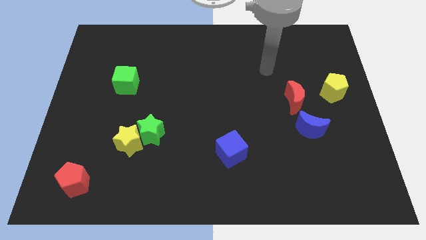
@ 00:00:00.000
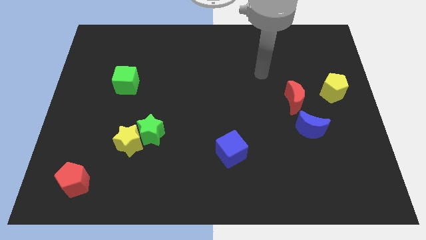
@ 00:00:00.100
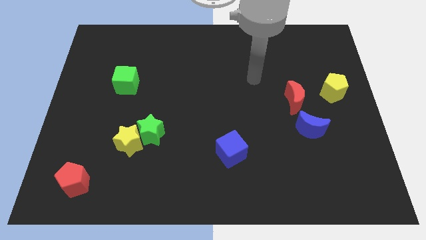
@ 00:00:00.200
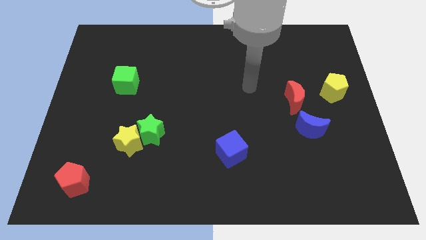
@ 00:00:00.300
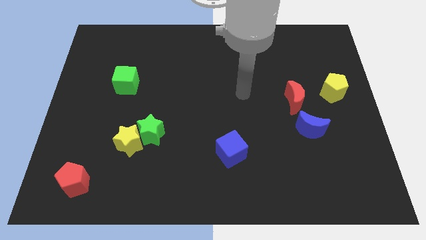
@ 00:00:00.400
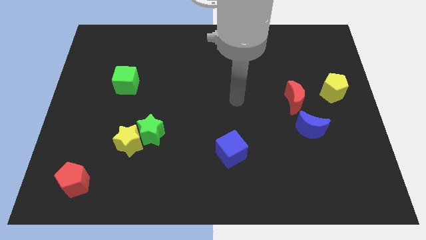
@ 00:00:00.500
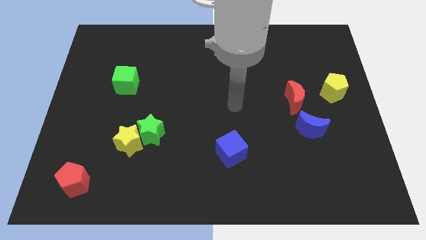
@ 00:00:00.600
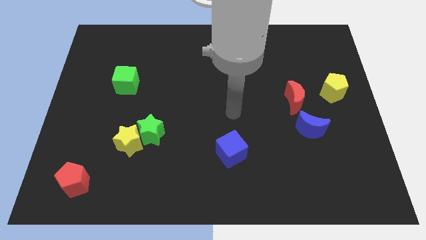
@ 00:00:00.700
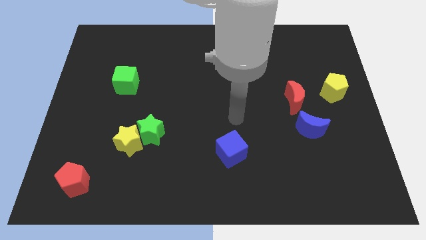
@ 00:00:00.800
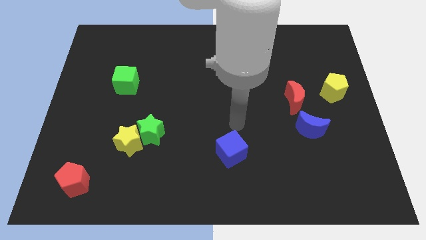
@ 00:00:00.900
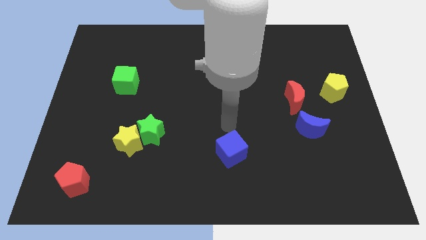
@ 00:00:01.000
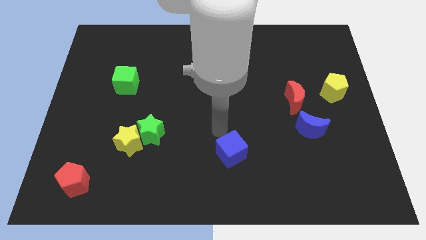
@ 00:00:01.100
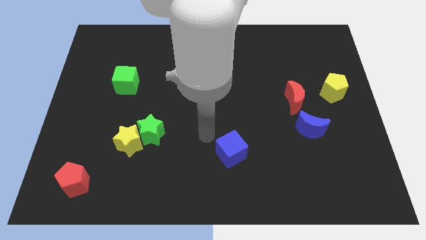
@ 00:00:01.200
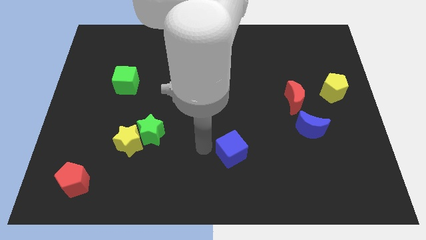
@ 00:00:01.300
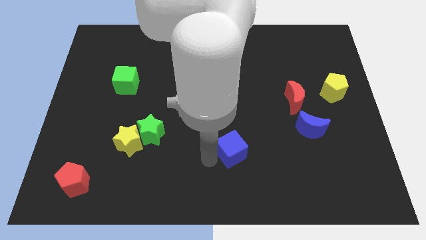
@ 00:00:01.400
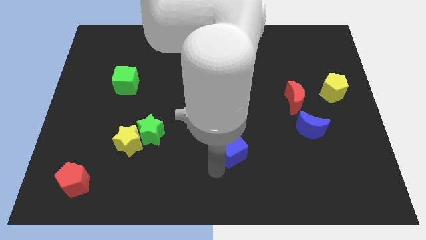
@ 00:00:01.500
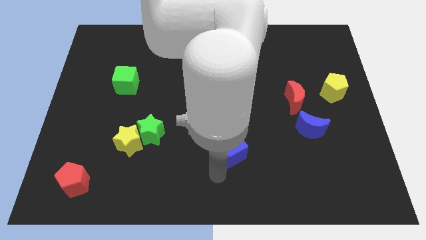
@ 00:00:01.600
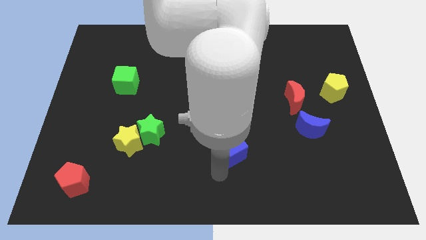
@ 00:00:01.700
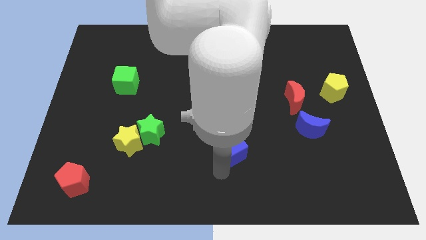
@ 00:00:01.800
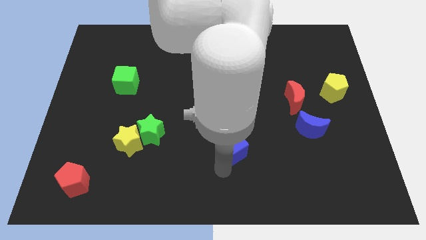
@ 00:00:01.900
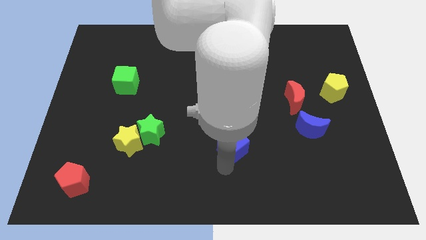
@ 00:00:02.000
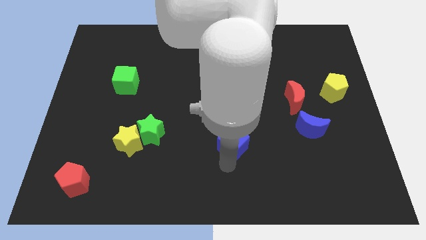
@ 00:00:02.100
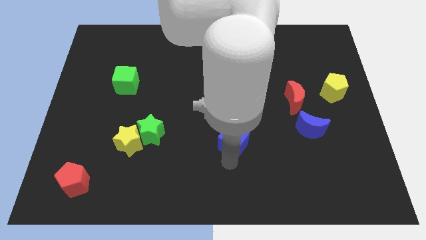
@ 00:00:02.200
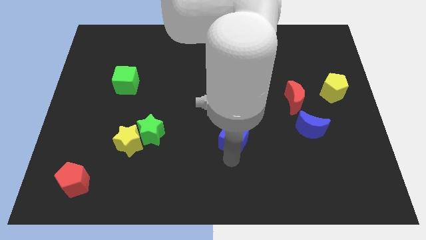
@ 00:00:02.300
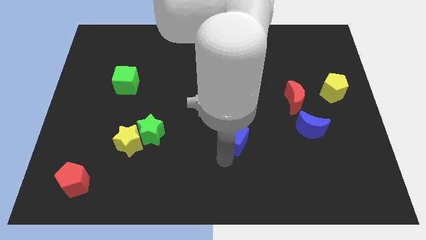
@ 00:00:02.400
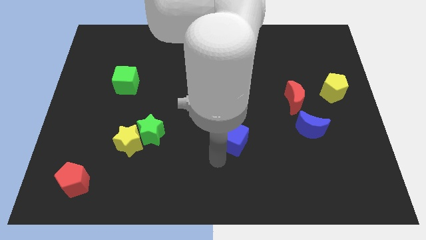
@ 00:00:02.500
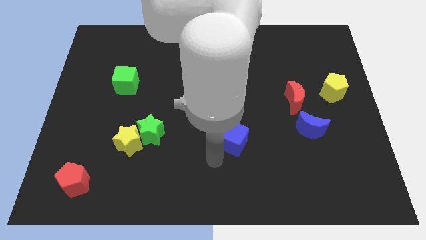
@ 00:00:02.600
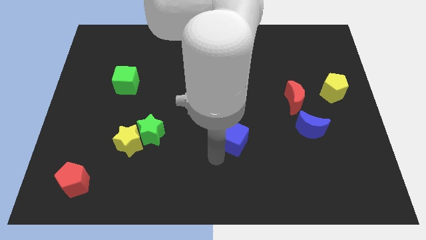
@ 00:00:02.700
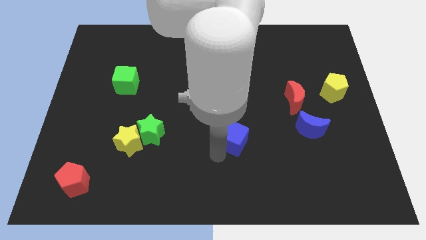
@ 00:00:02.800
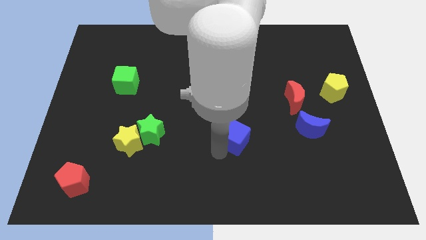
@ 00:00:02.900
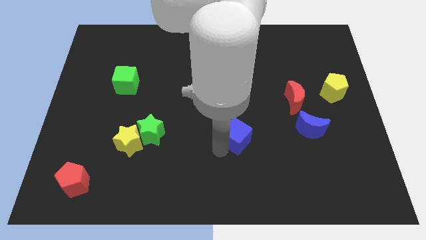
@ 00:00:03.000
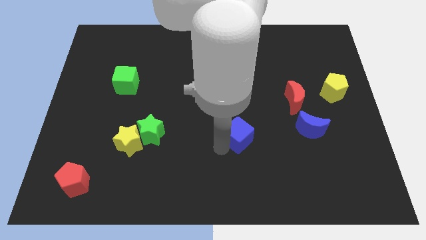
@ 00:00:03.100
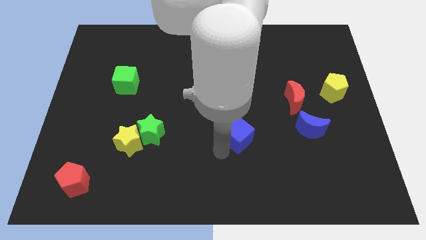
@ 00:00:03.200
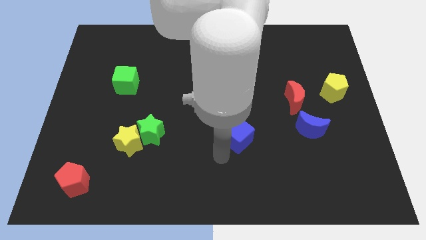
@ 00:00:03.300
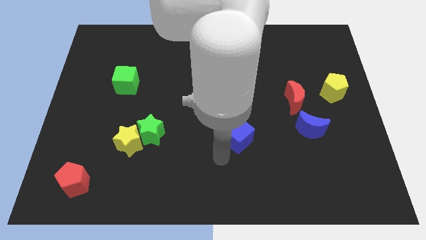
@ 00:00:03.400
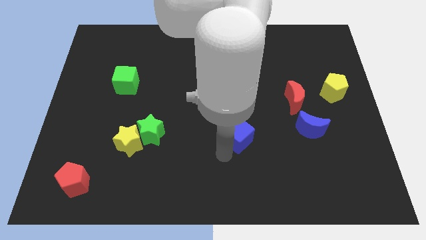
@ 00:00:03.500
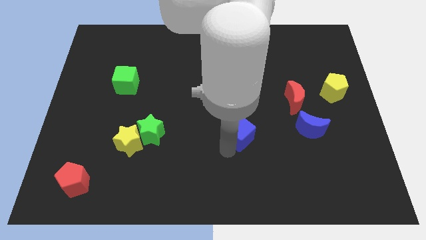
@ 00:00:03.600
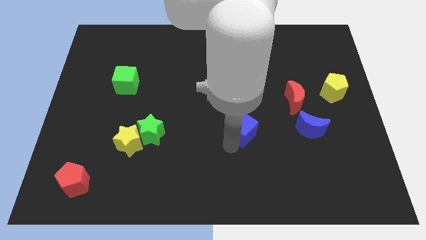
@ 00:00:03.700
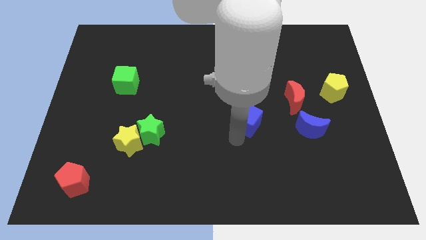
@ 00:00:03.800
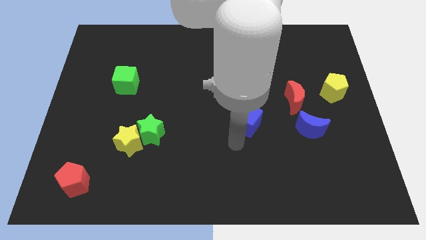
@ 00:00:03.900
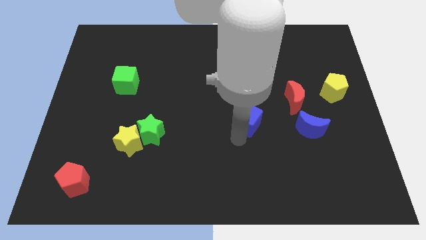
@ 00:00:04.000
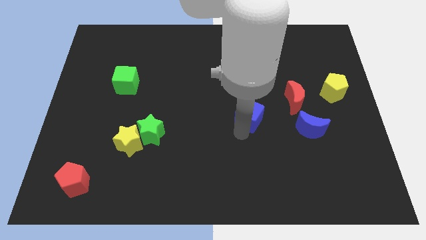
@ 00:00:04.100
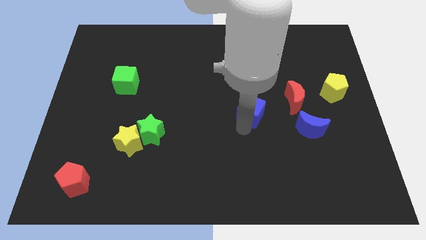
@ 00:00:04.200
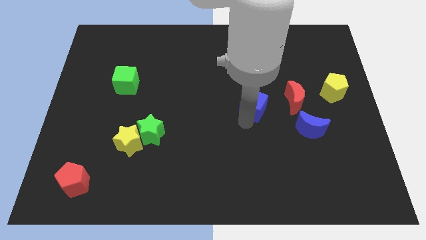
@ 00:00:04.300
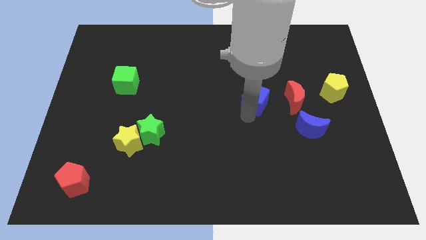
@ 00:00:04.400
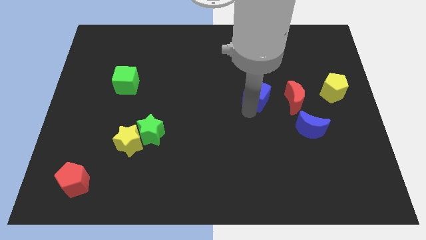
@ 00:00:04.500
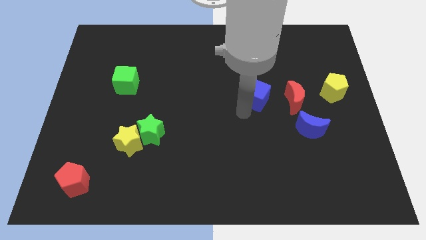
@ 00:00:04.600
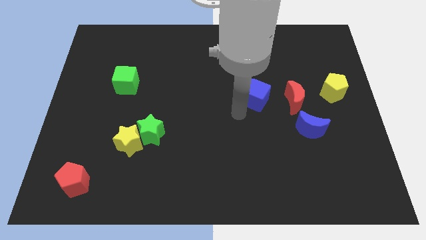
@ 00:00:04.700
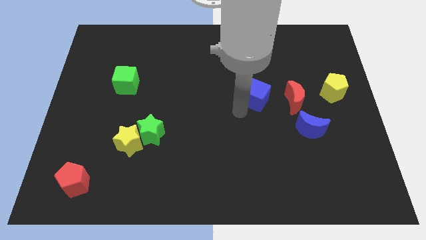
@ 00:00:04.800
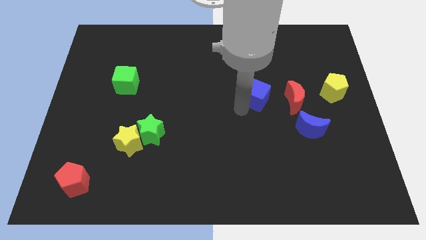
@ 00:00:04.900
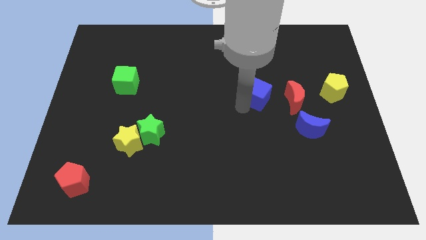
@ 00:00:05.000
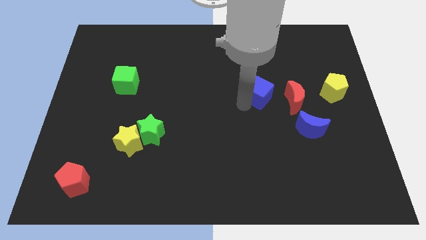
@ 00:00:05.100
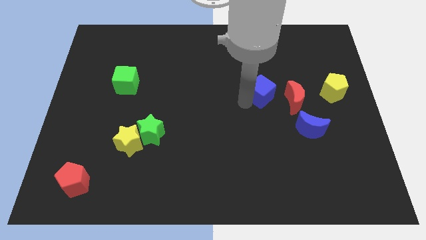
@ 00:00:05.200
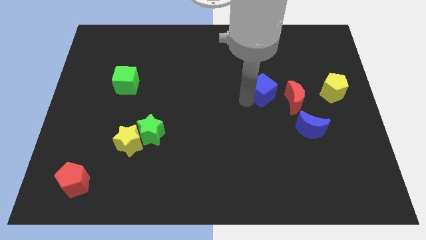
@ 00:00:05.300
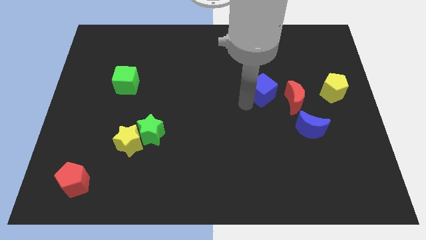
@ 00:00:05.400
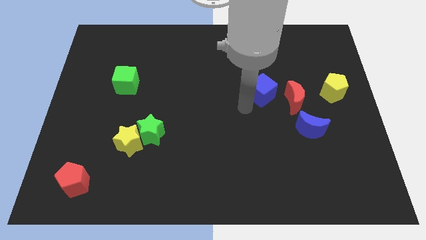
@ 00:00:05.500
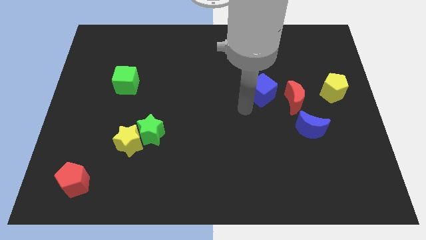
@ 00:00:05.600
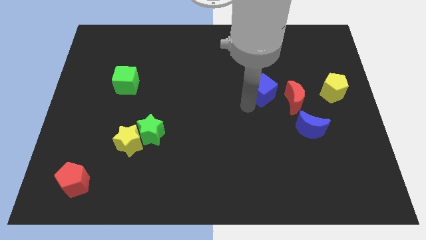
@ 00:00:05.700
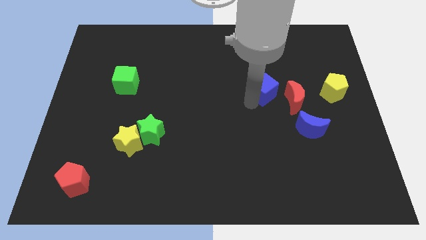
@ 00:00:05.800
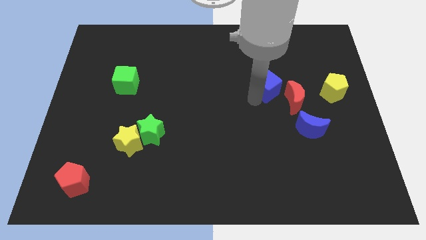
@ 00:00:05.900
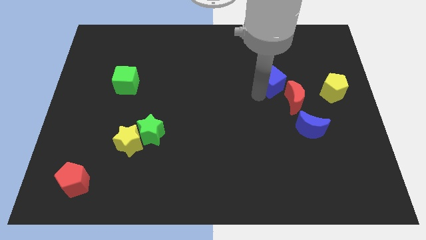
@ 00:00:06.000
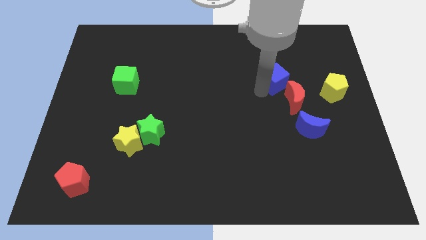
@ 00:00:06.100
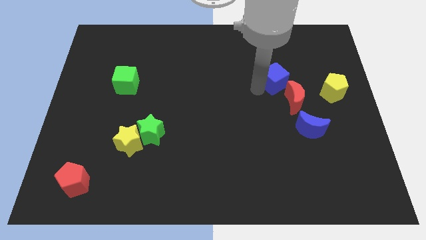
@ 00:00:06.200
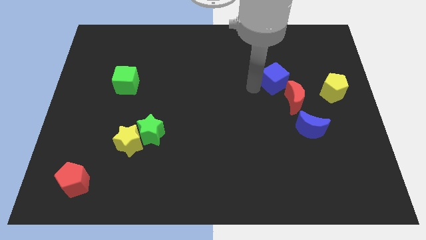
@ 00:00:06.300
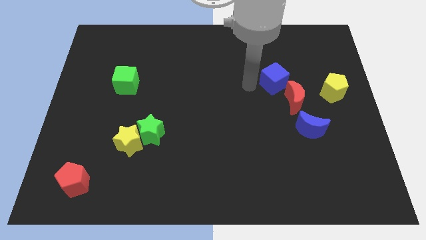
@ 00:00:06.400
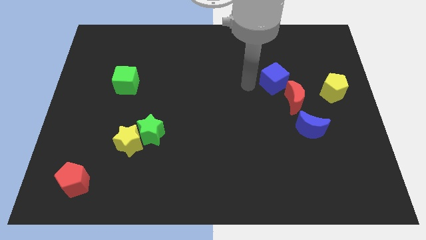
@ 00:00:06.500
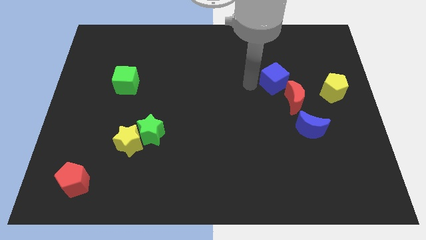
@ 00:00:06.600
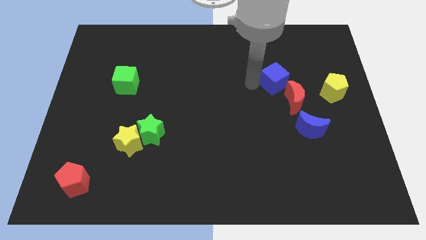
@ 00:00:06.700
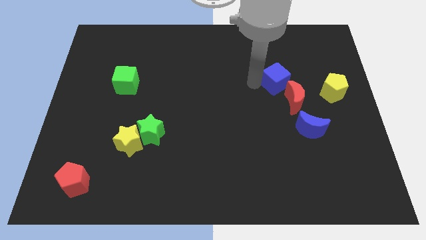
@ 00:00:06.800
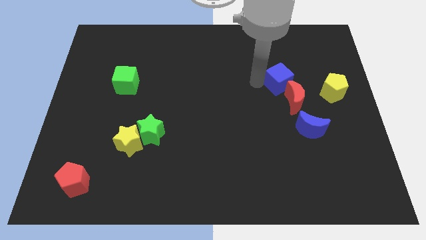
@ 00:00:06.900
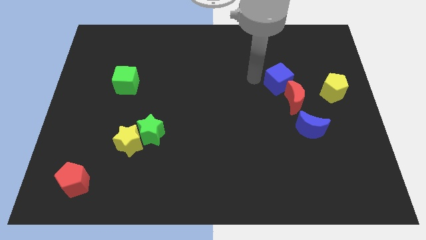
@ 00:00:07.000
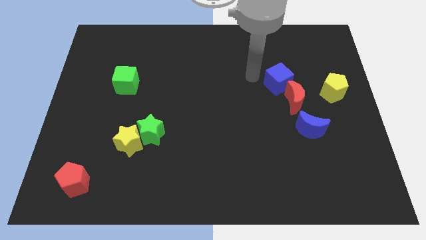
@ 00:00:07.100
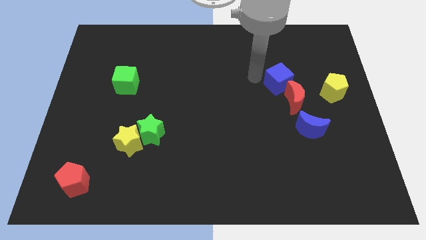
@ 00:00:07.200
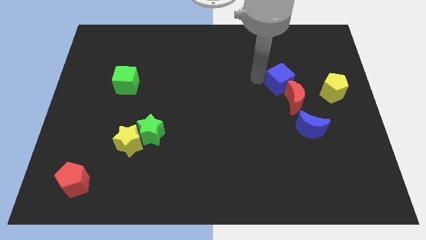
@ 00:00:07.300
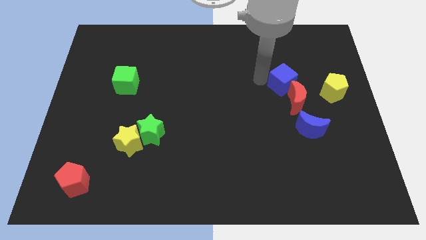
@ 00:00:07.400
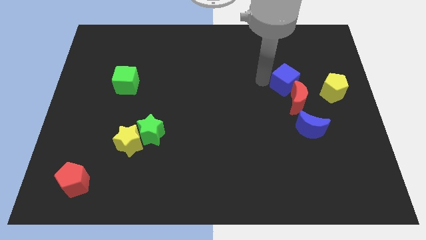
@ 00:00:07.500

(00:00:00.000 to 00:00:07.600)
move the blue cube above the blue moon

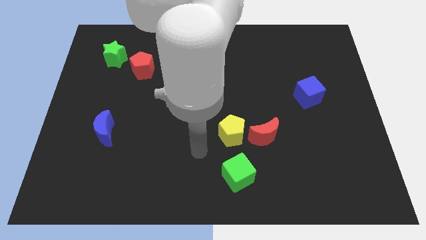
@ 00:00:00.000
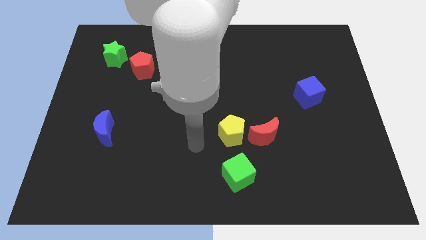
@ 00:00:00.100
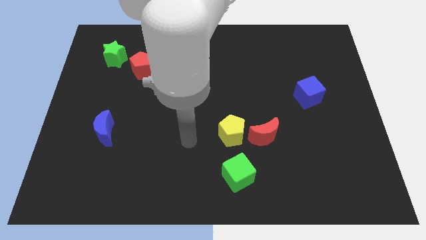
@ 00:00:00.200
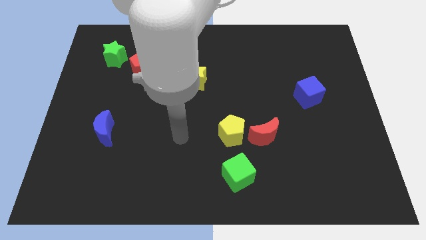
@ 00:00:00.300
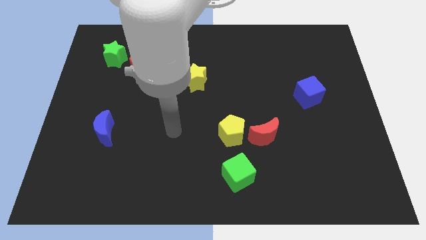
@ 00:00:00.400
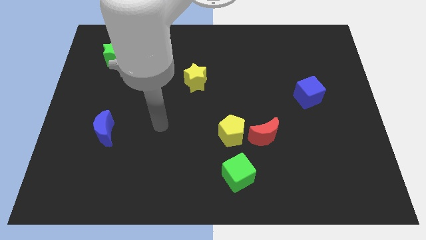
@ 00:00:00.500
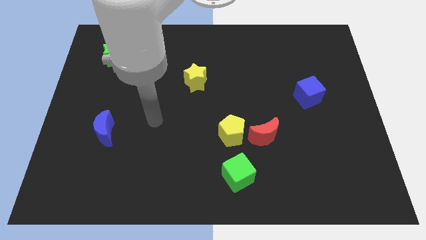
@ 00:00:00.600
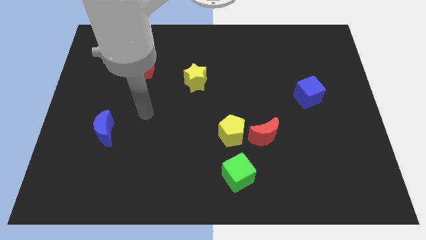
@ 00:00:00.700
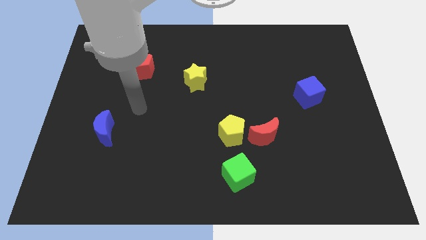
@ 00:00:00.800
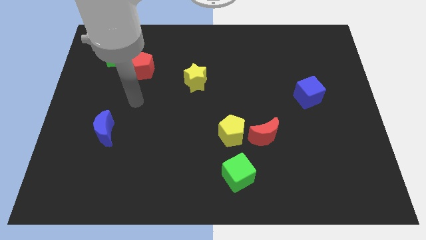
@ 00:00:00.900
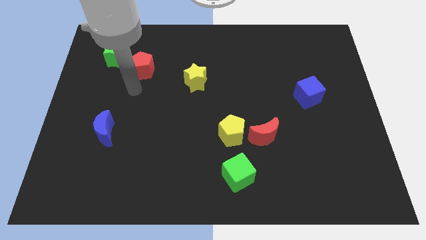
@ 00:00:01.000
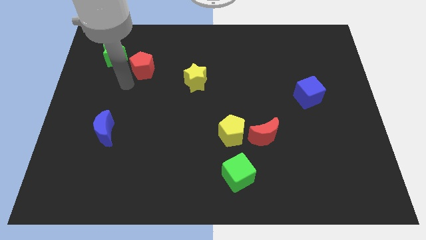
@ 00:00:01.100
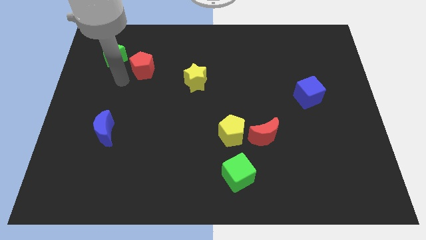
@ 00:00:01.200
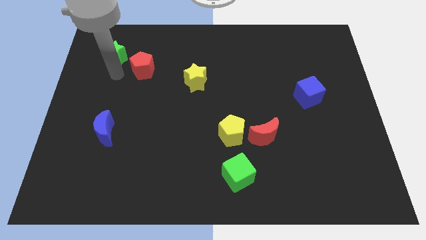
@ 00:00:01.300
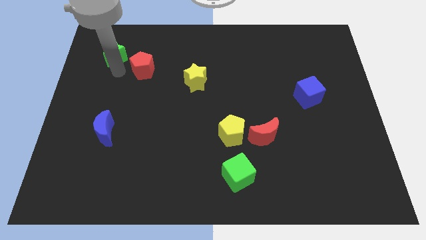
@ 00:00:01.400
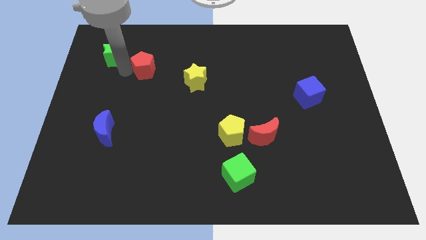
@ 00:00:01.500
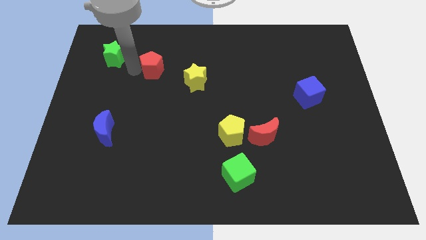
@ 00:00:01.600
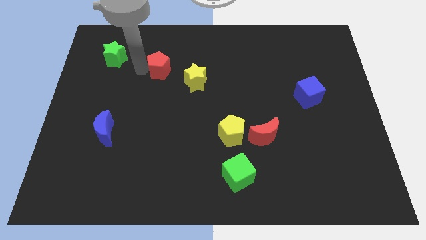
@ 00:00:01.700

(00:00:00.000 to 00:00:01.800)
move the red pentagon to the top left of the yellow star
